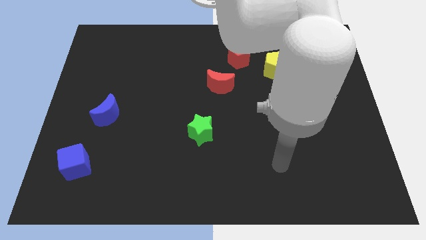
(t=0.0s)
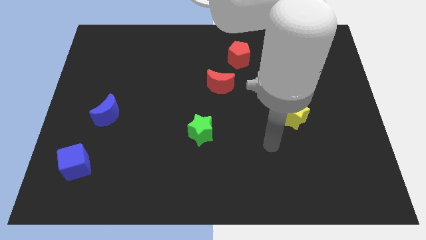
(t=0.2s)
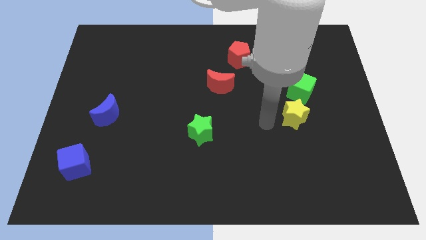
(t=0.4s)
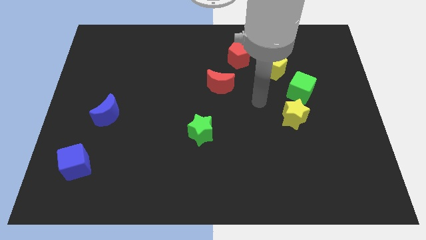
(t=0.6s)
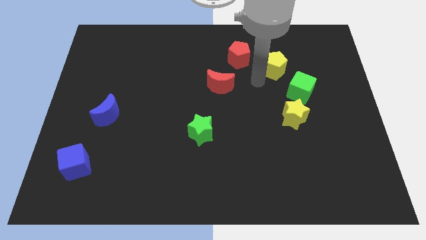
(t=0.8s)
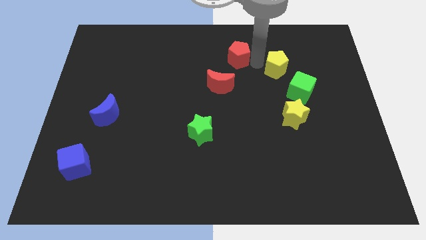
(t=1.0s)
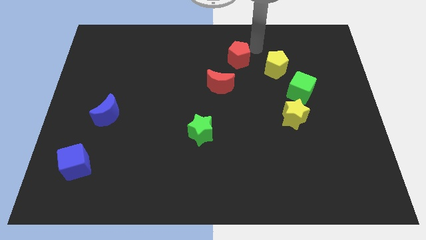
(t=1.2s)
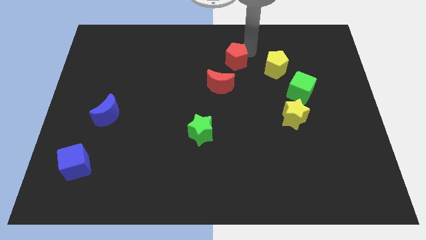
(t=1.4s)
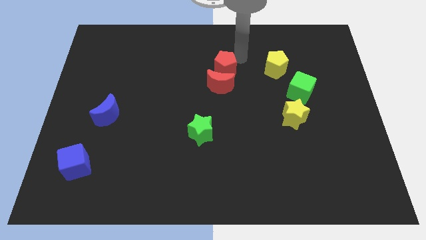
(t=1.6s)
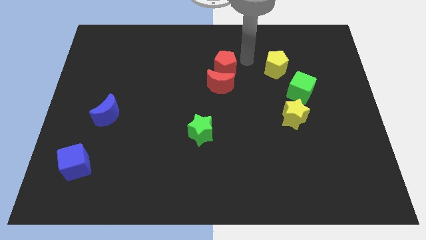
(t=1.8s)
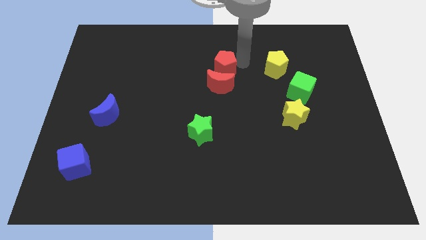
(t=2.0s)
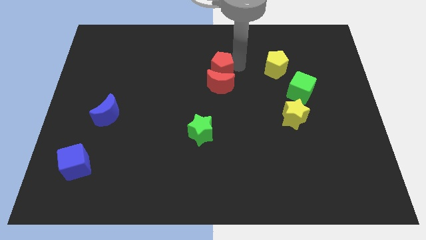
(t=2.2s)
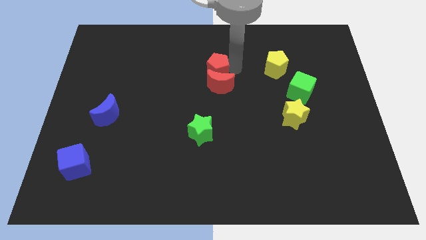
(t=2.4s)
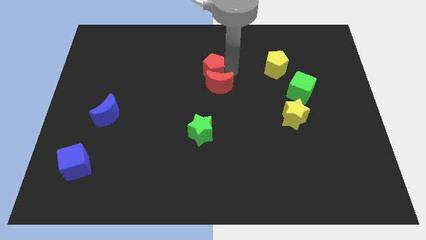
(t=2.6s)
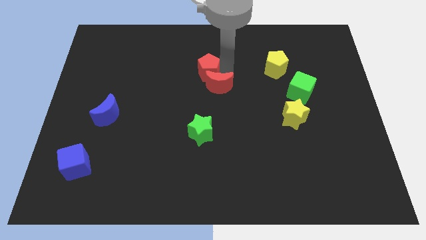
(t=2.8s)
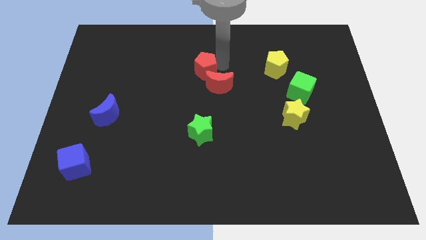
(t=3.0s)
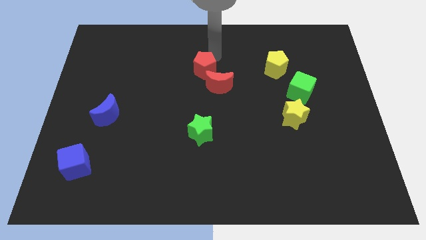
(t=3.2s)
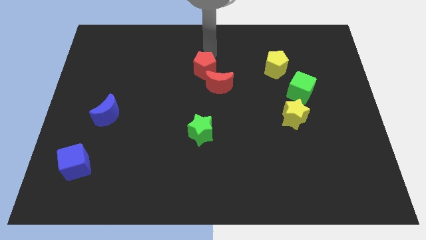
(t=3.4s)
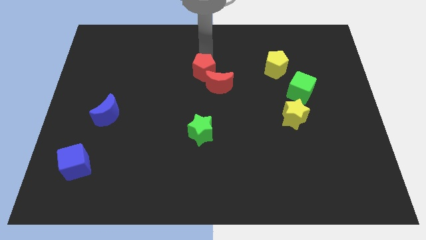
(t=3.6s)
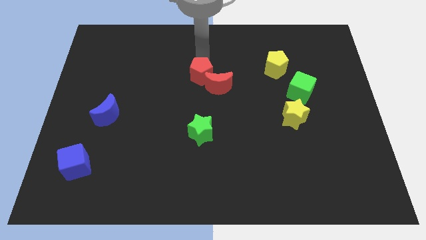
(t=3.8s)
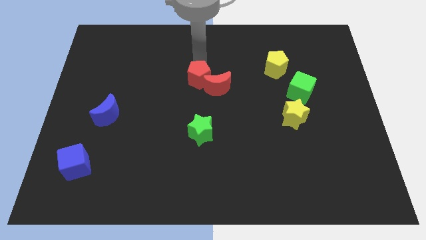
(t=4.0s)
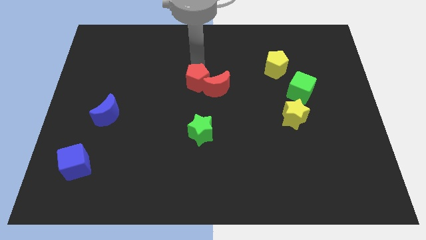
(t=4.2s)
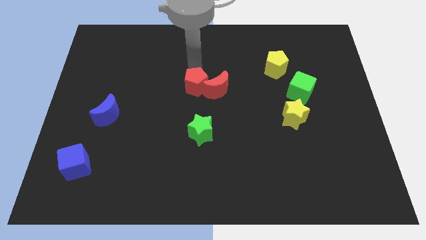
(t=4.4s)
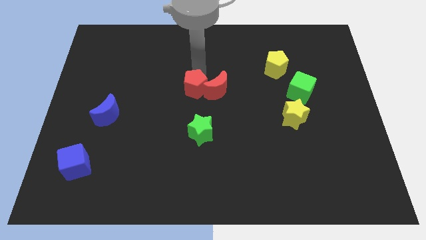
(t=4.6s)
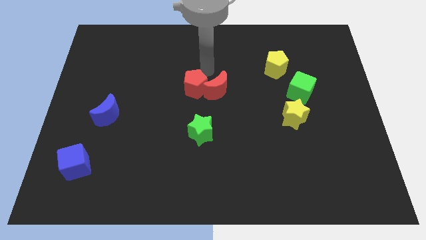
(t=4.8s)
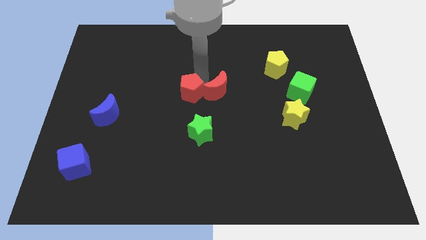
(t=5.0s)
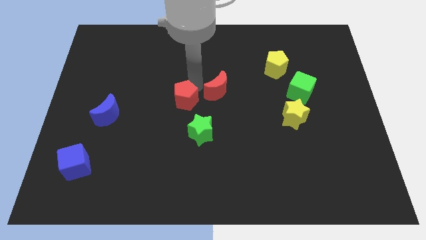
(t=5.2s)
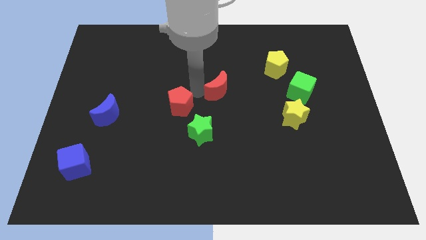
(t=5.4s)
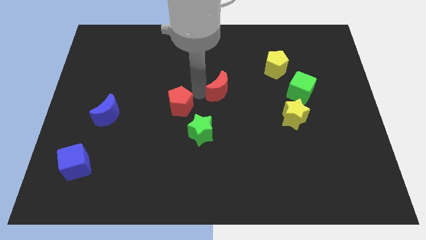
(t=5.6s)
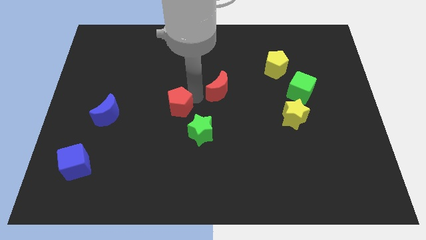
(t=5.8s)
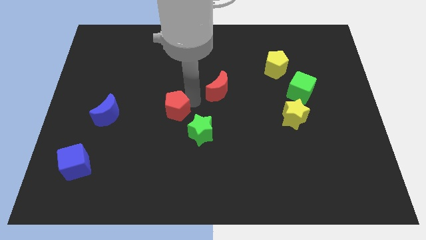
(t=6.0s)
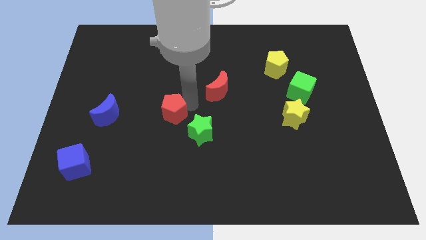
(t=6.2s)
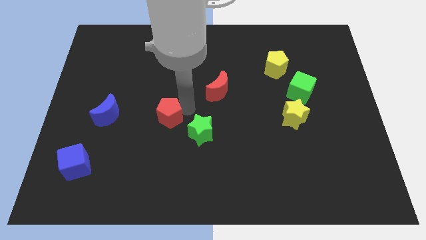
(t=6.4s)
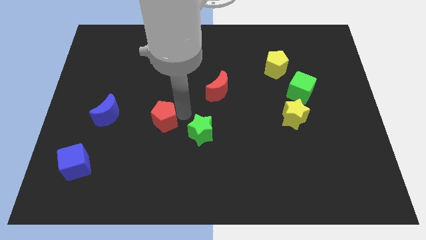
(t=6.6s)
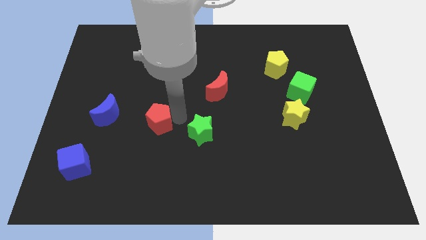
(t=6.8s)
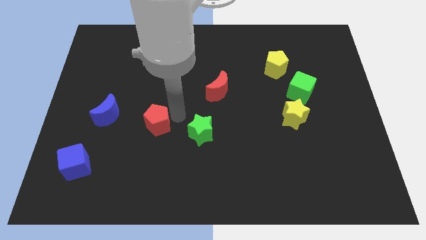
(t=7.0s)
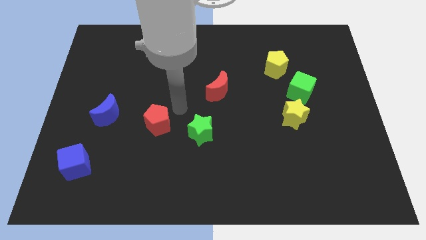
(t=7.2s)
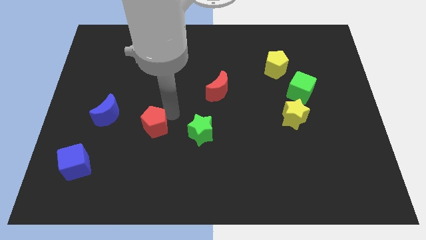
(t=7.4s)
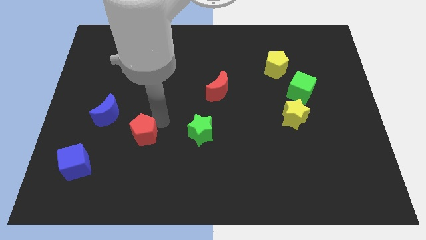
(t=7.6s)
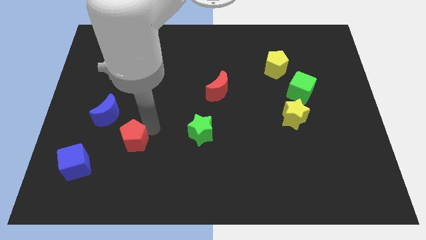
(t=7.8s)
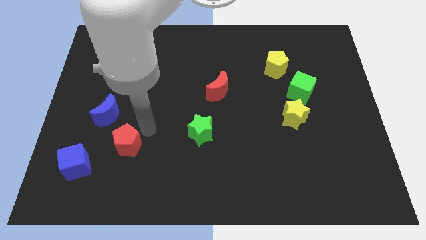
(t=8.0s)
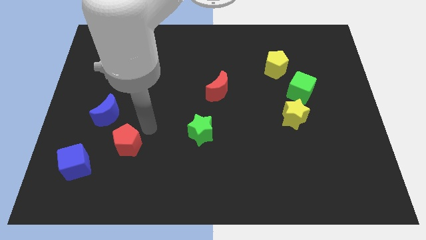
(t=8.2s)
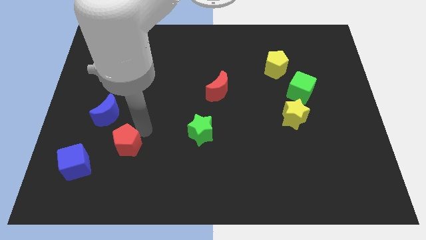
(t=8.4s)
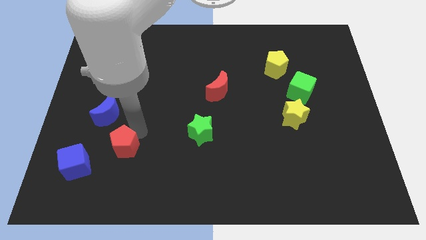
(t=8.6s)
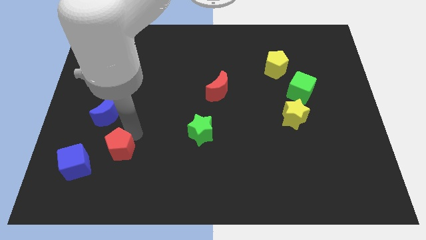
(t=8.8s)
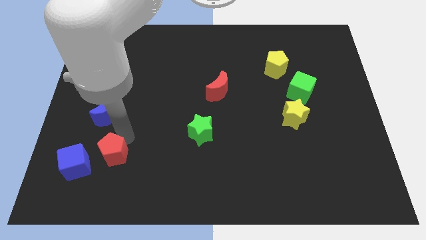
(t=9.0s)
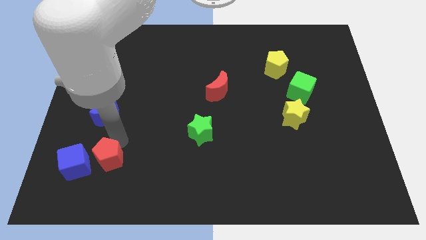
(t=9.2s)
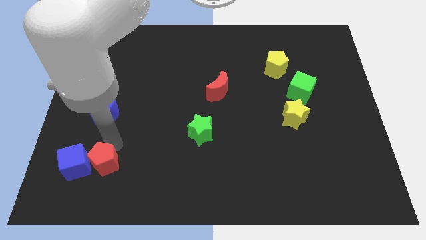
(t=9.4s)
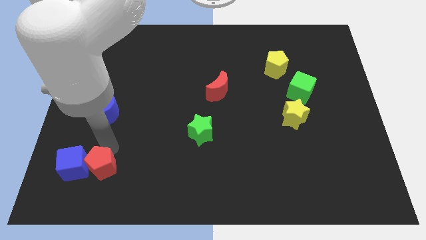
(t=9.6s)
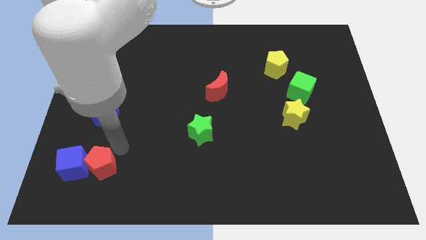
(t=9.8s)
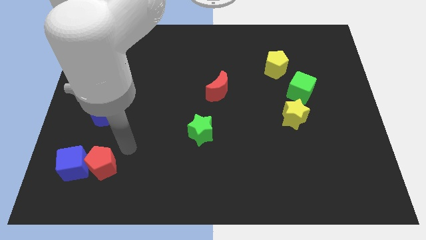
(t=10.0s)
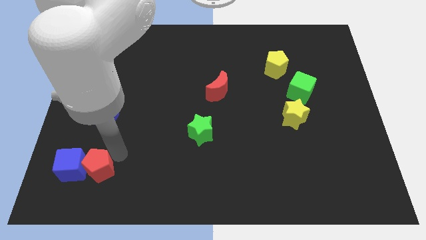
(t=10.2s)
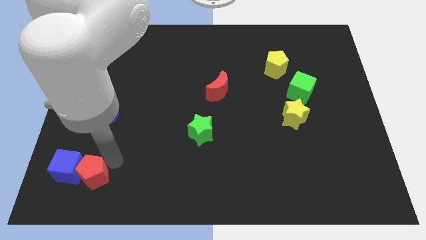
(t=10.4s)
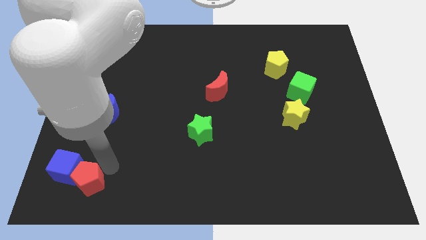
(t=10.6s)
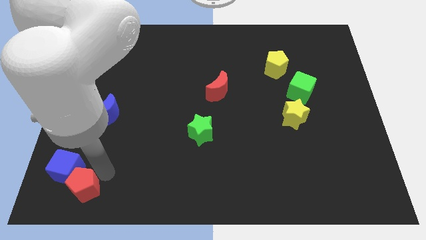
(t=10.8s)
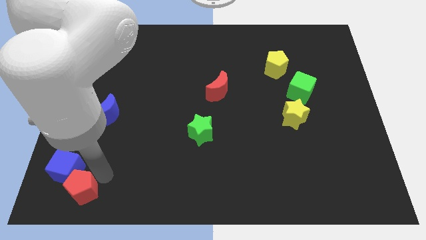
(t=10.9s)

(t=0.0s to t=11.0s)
move the red pentagon to the bottom left

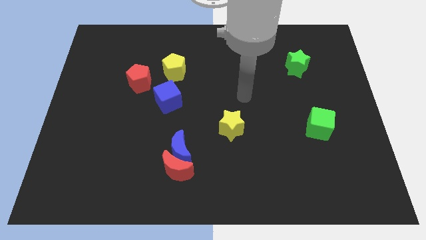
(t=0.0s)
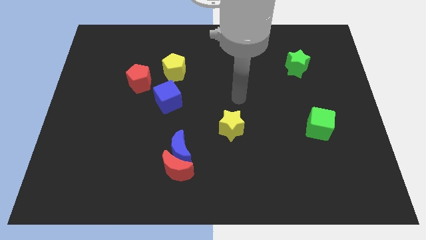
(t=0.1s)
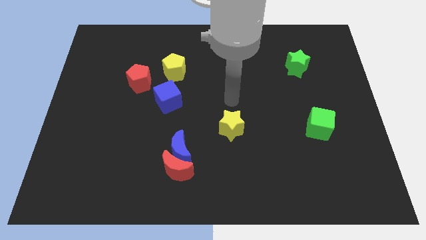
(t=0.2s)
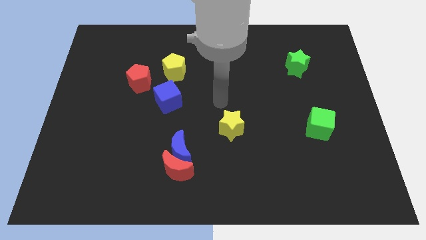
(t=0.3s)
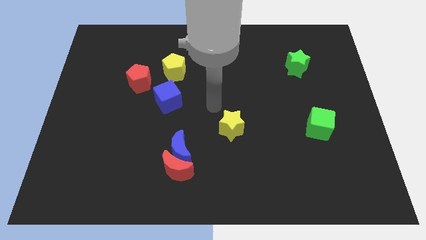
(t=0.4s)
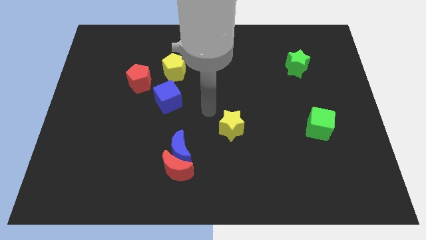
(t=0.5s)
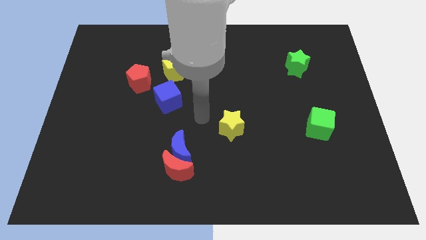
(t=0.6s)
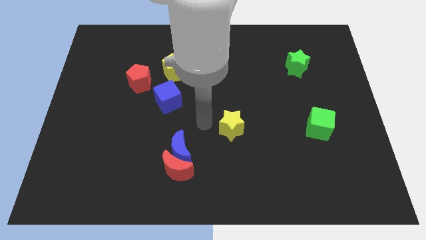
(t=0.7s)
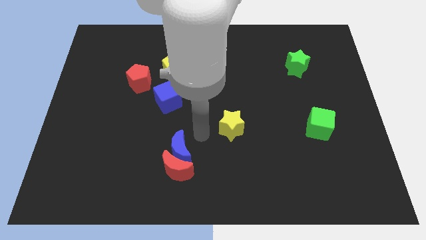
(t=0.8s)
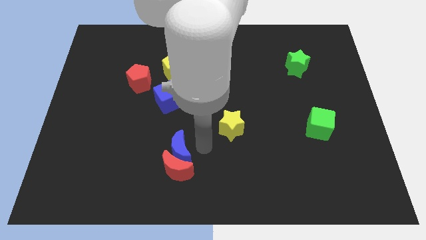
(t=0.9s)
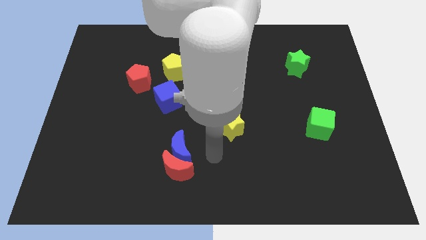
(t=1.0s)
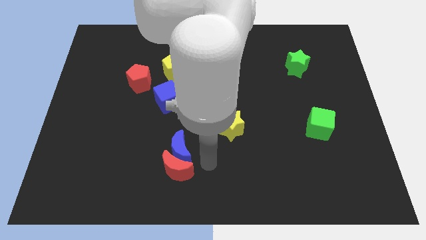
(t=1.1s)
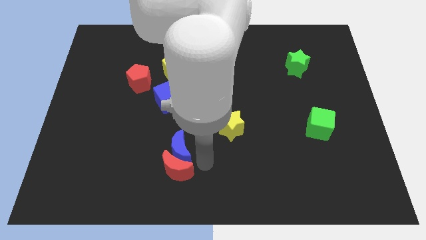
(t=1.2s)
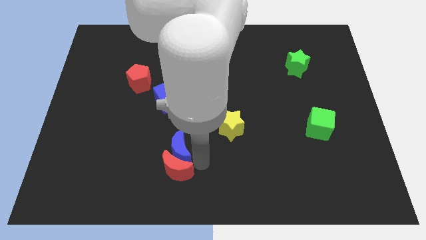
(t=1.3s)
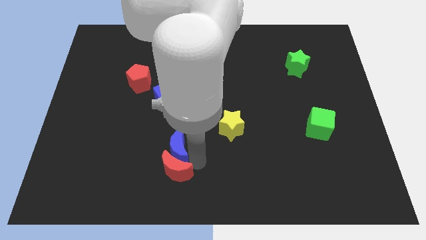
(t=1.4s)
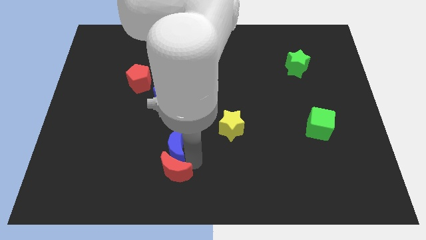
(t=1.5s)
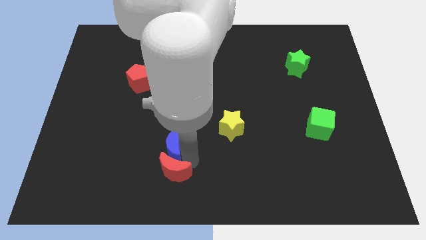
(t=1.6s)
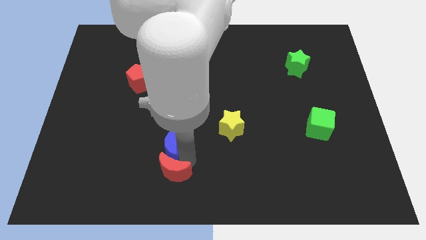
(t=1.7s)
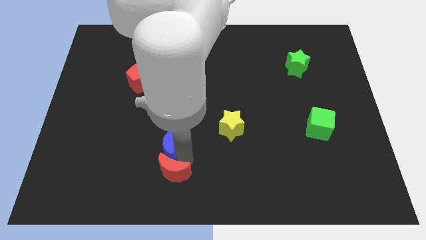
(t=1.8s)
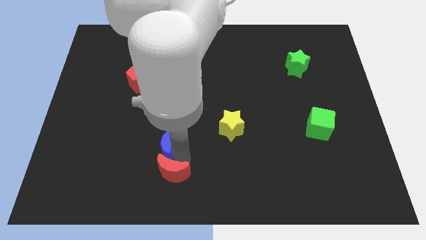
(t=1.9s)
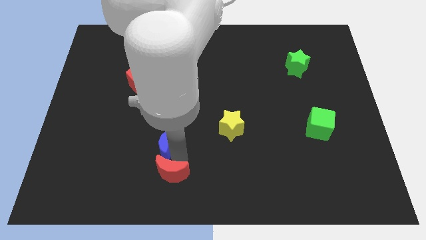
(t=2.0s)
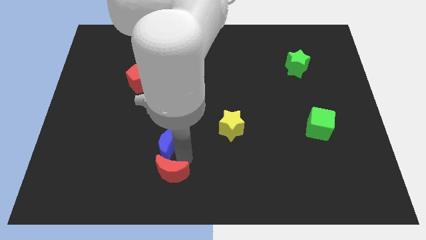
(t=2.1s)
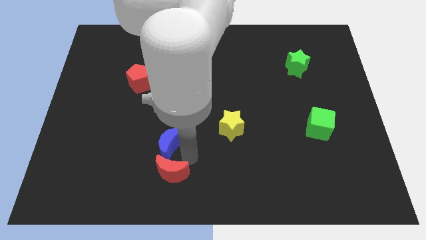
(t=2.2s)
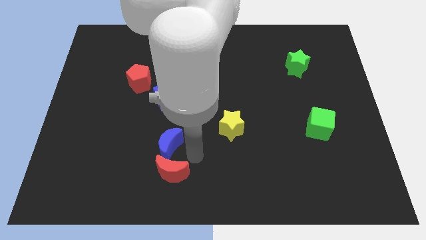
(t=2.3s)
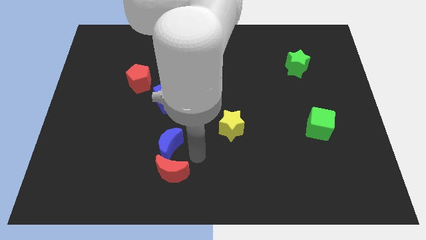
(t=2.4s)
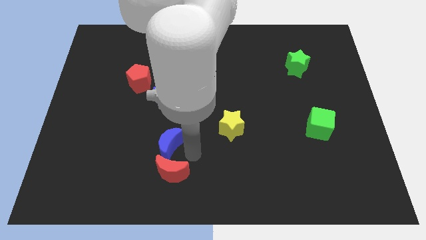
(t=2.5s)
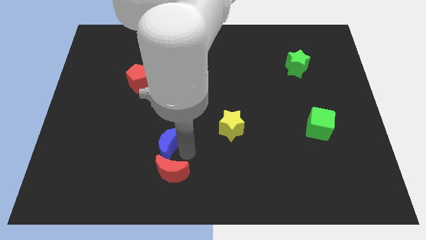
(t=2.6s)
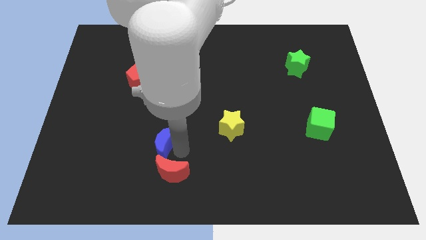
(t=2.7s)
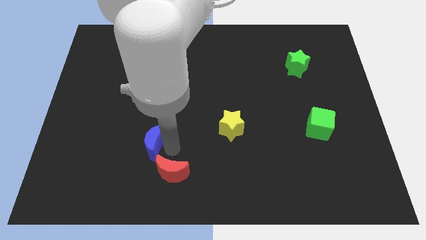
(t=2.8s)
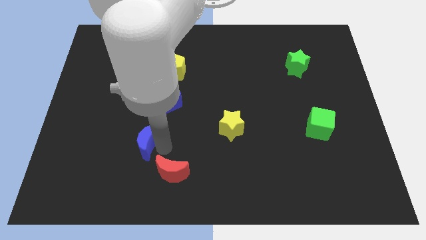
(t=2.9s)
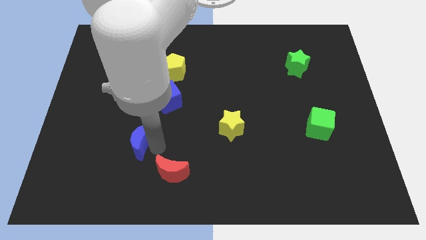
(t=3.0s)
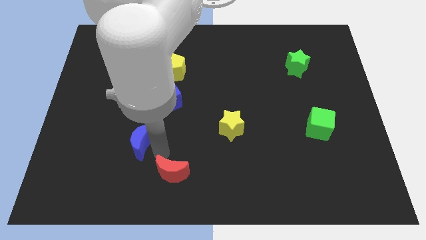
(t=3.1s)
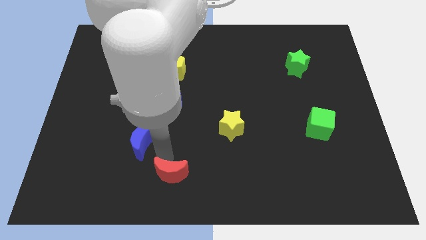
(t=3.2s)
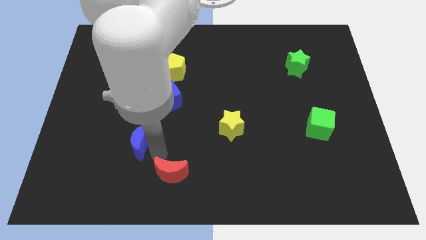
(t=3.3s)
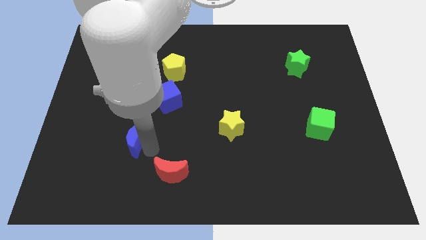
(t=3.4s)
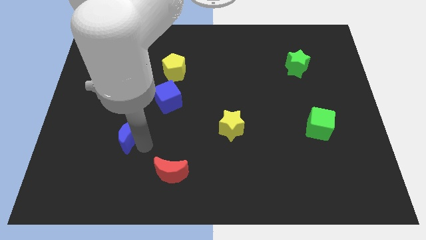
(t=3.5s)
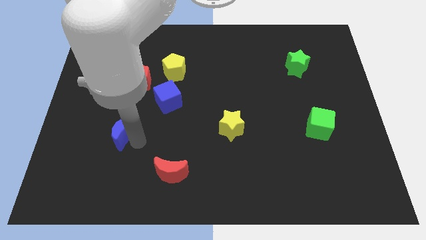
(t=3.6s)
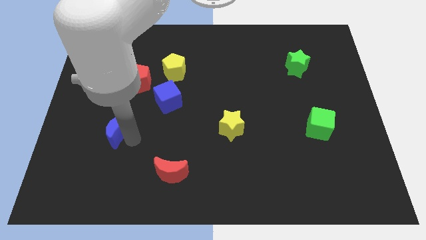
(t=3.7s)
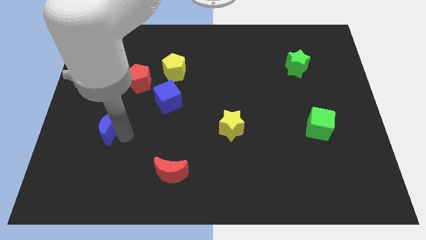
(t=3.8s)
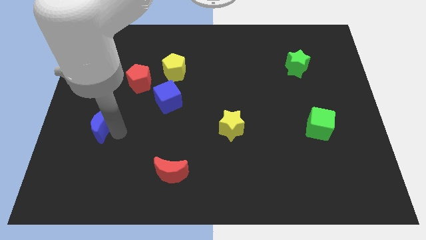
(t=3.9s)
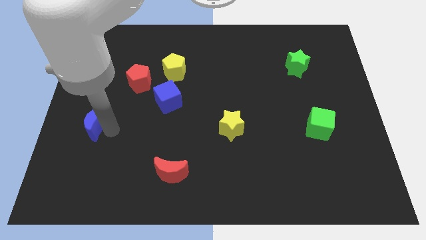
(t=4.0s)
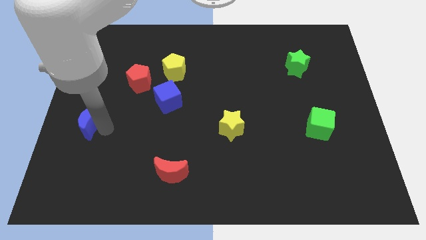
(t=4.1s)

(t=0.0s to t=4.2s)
push the blue moon to the center left
